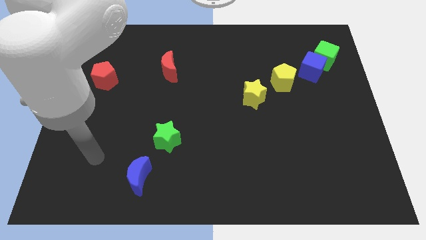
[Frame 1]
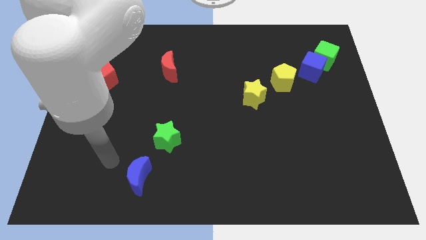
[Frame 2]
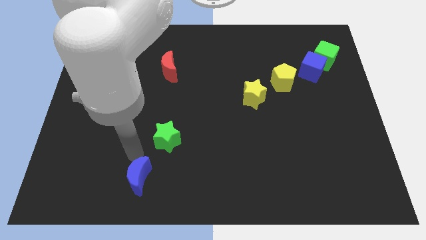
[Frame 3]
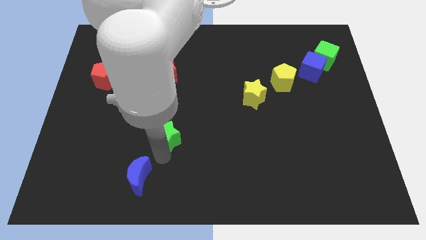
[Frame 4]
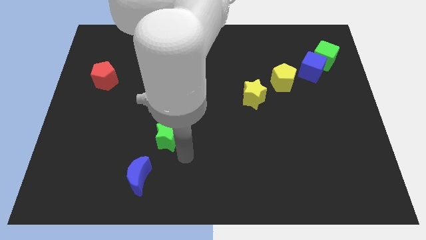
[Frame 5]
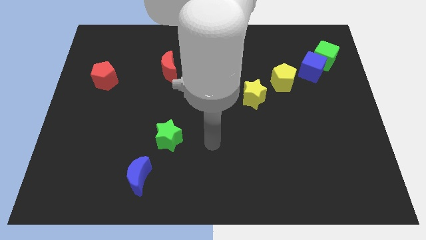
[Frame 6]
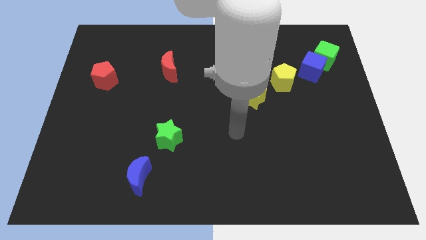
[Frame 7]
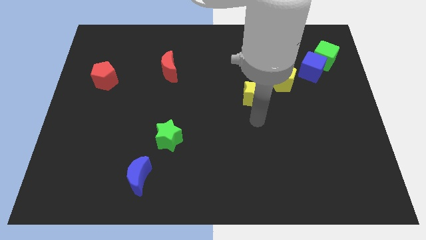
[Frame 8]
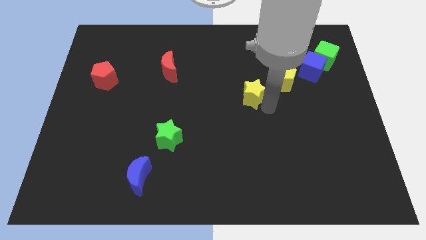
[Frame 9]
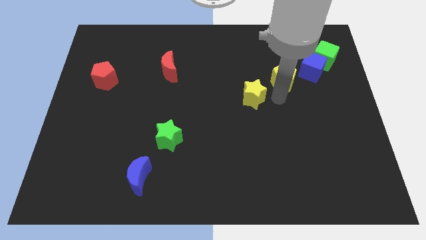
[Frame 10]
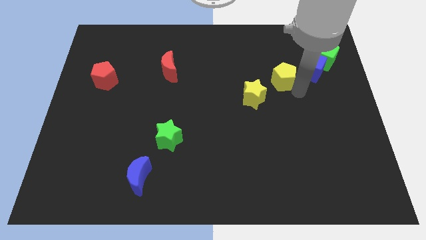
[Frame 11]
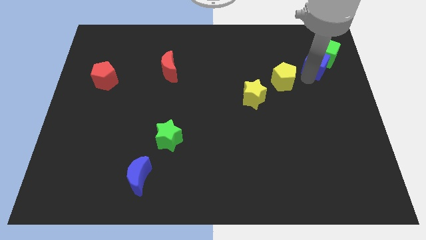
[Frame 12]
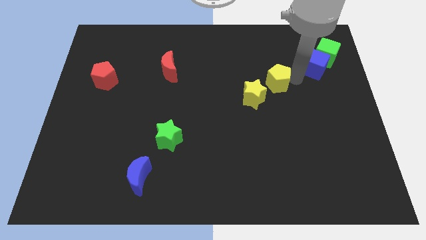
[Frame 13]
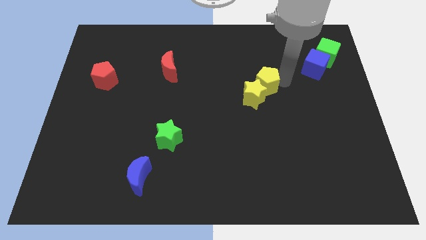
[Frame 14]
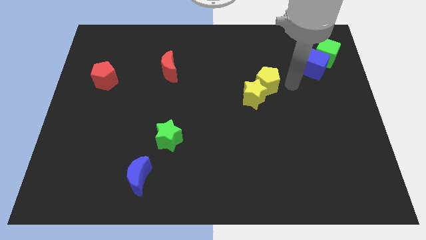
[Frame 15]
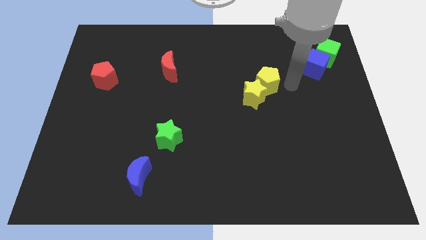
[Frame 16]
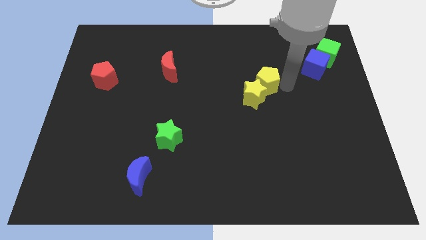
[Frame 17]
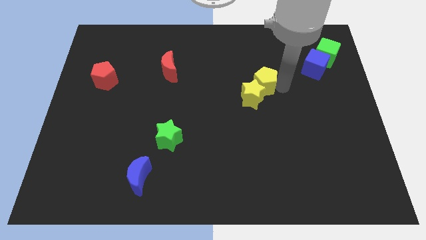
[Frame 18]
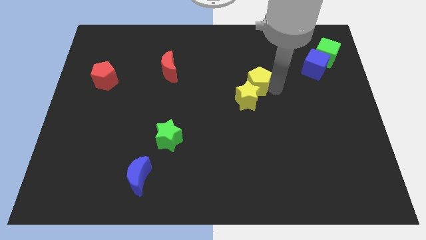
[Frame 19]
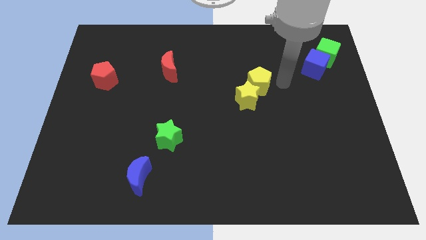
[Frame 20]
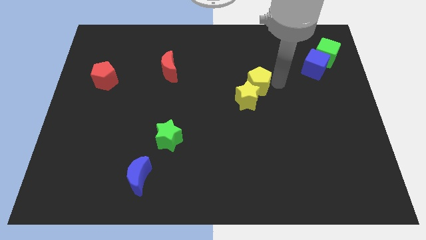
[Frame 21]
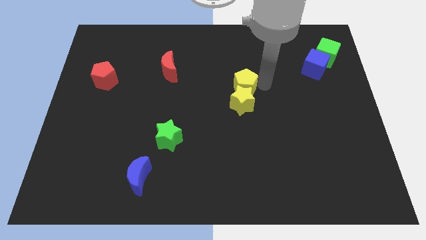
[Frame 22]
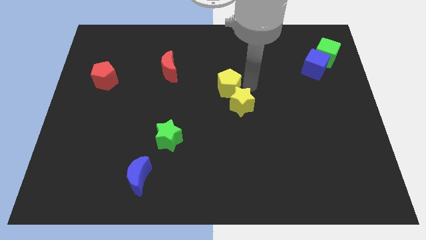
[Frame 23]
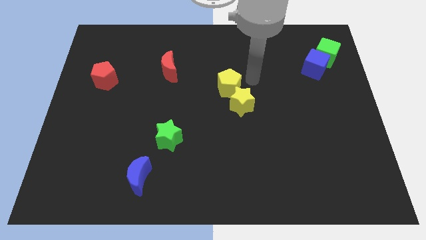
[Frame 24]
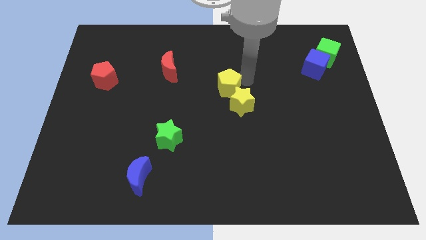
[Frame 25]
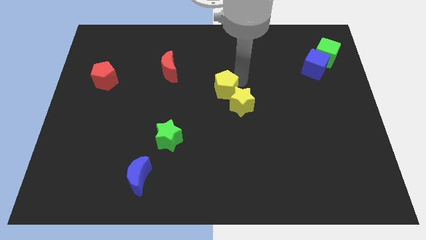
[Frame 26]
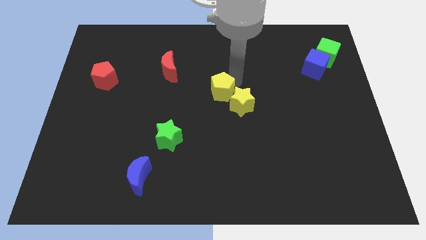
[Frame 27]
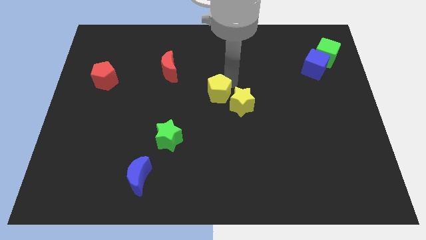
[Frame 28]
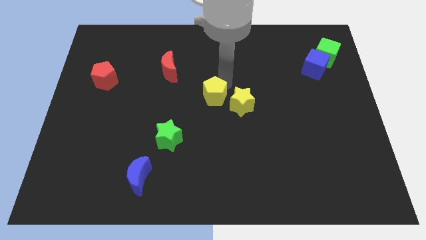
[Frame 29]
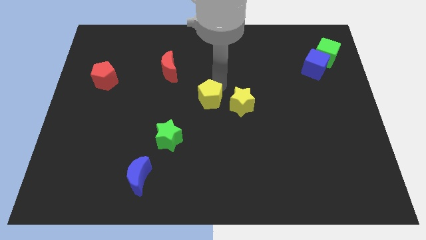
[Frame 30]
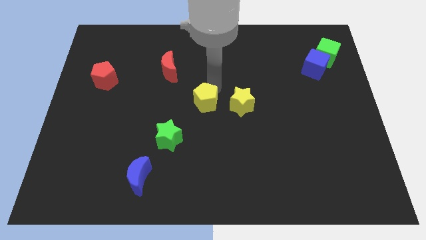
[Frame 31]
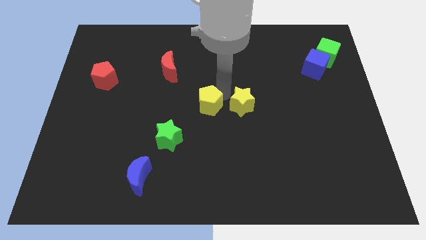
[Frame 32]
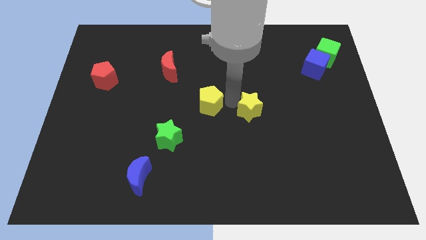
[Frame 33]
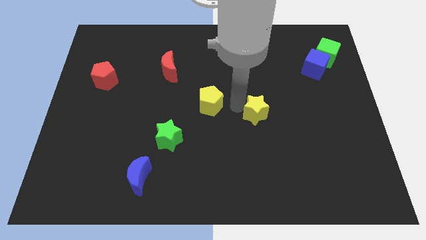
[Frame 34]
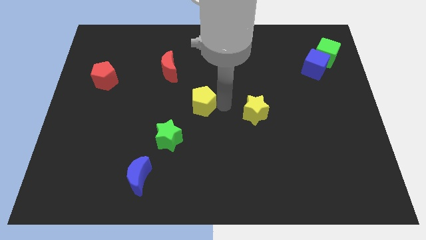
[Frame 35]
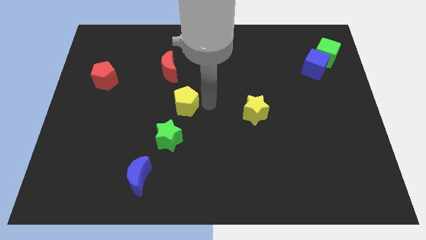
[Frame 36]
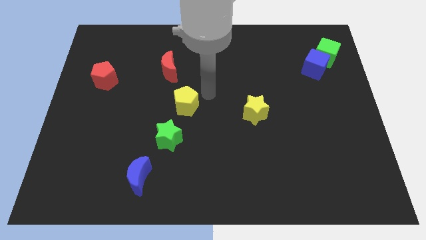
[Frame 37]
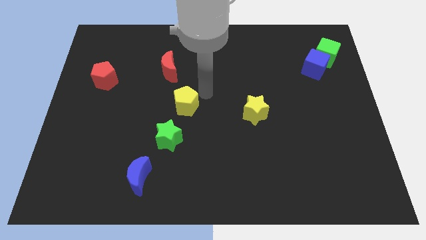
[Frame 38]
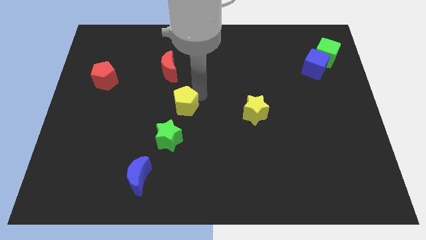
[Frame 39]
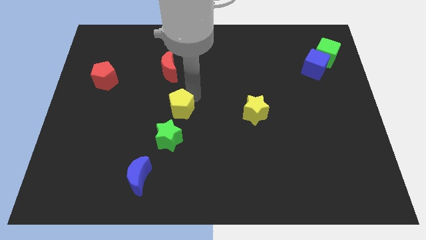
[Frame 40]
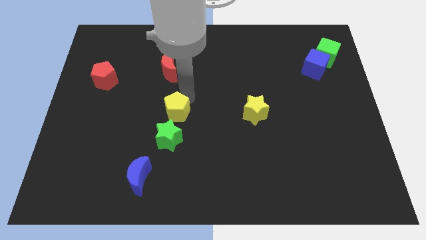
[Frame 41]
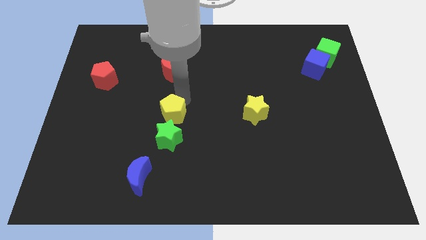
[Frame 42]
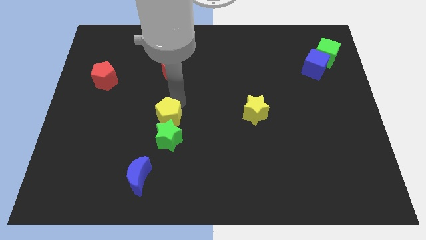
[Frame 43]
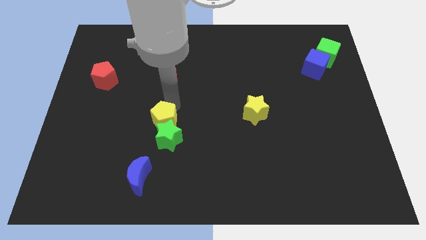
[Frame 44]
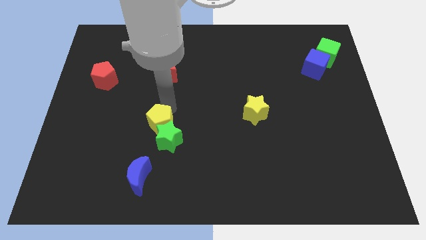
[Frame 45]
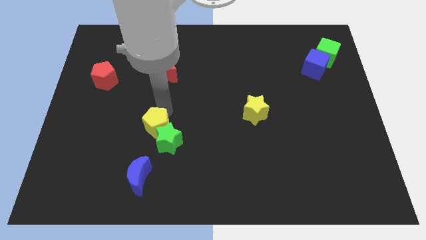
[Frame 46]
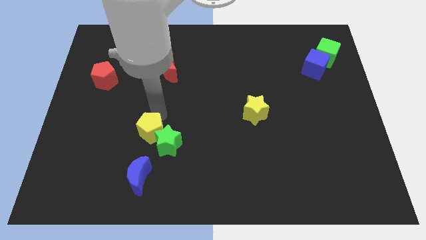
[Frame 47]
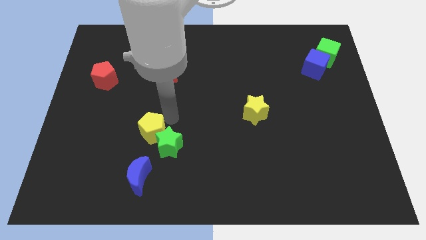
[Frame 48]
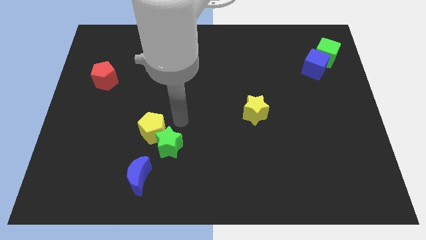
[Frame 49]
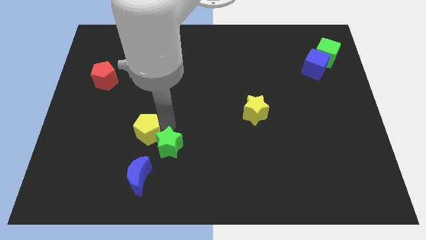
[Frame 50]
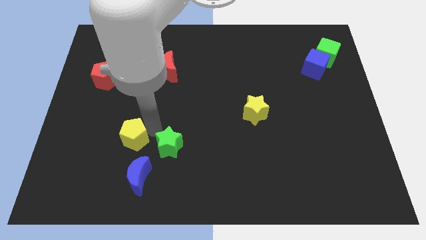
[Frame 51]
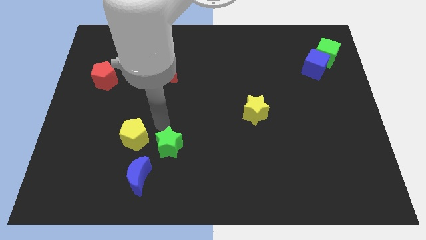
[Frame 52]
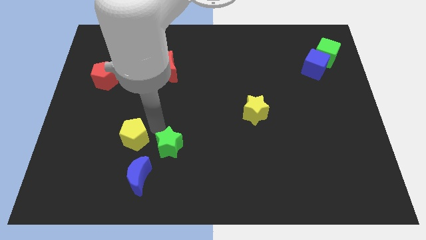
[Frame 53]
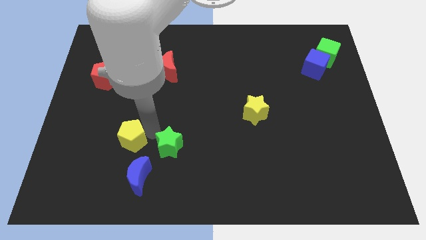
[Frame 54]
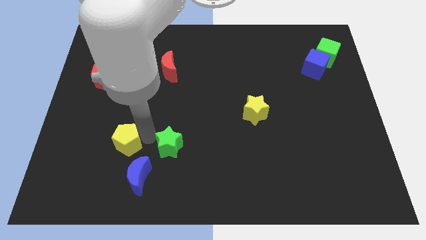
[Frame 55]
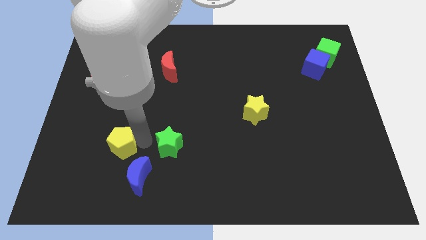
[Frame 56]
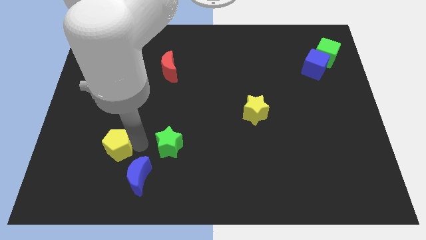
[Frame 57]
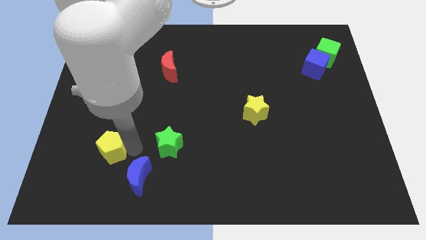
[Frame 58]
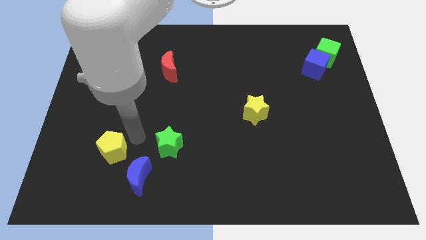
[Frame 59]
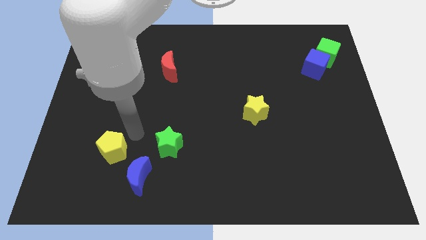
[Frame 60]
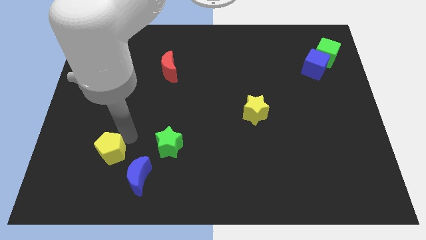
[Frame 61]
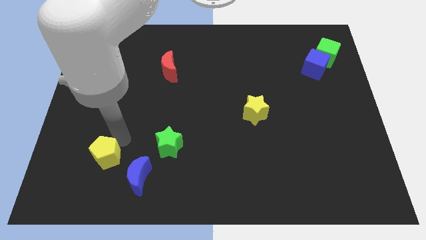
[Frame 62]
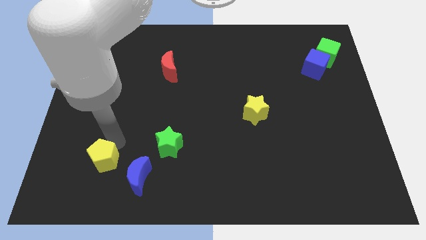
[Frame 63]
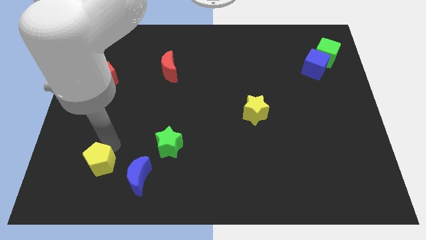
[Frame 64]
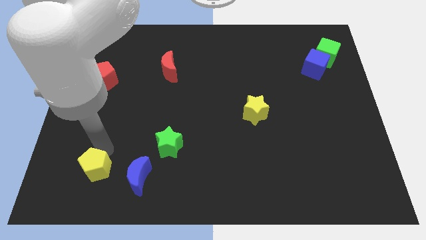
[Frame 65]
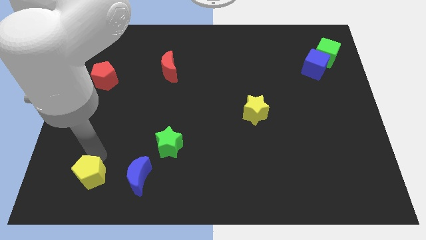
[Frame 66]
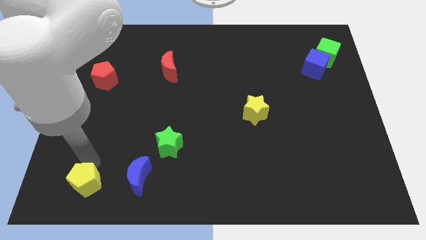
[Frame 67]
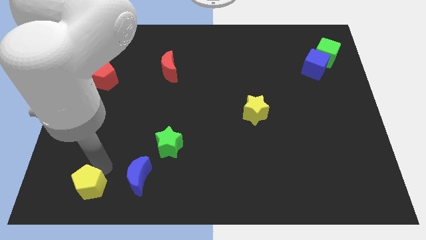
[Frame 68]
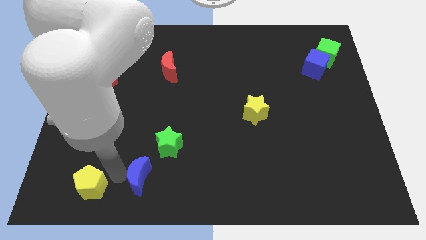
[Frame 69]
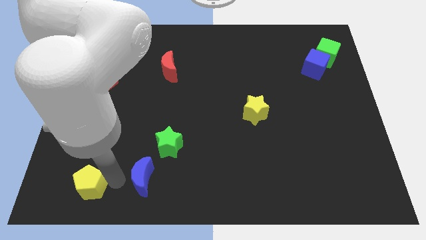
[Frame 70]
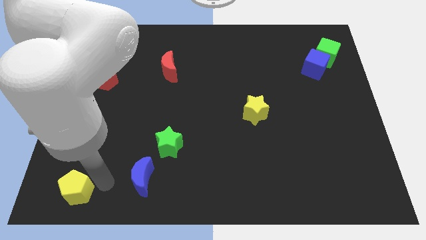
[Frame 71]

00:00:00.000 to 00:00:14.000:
put the yellow pentagon to the lower left corner
